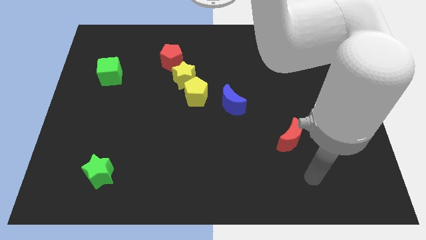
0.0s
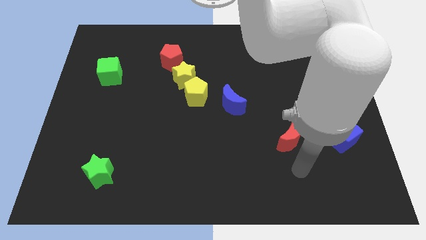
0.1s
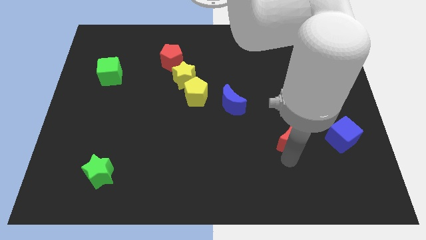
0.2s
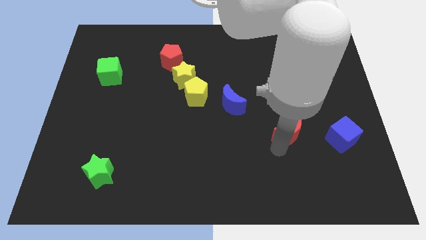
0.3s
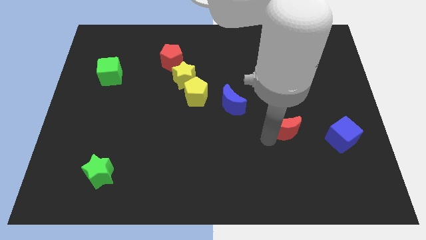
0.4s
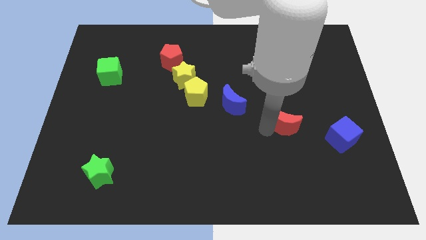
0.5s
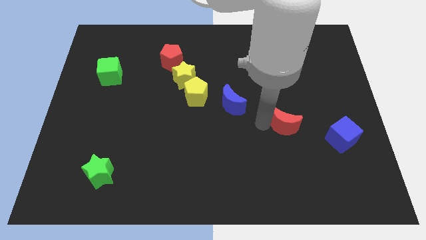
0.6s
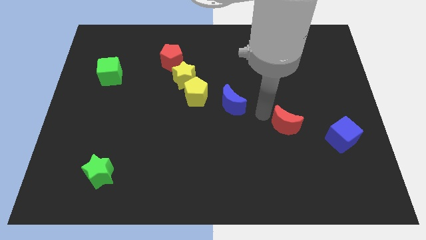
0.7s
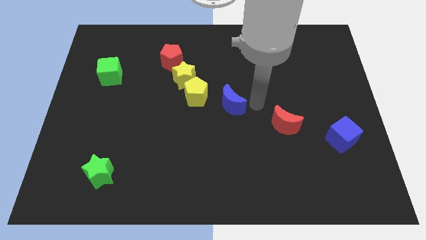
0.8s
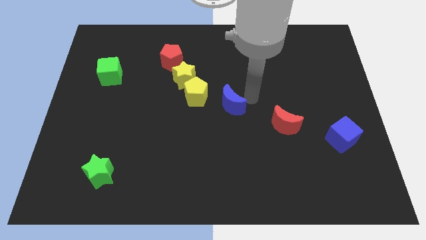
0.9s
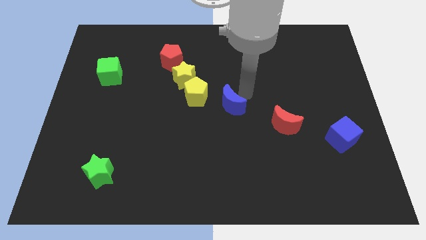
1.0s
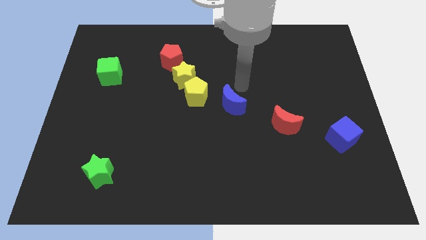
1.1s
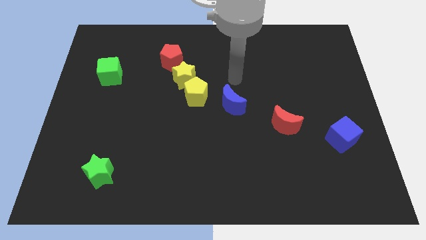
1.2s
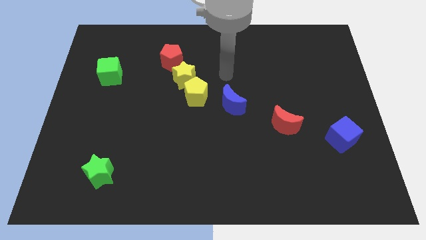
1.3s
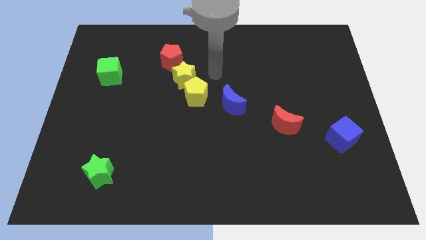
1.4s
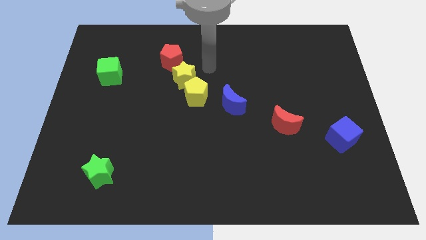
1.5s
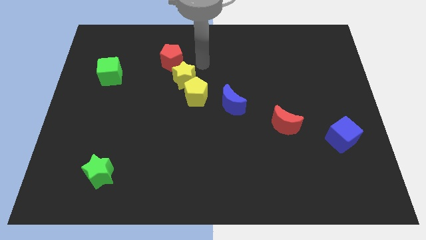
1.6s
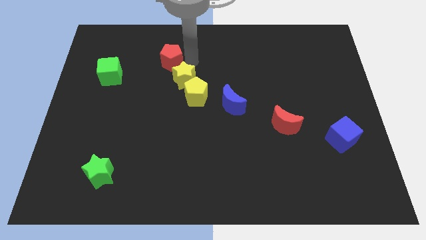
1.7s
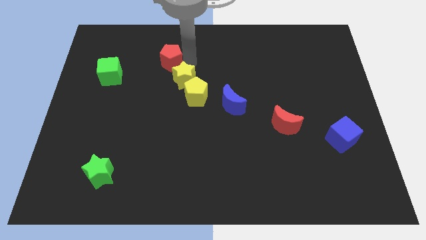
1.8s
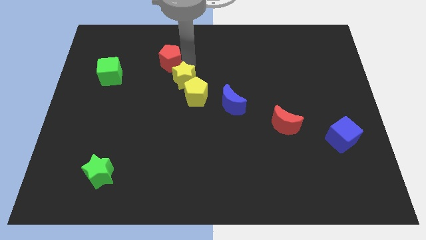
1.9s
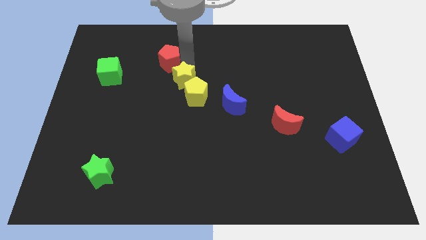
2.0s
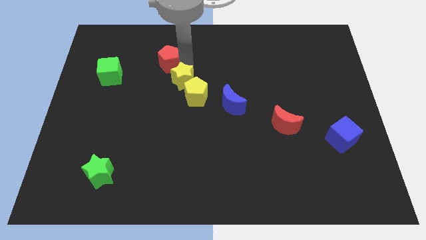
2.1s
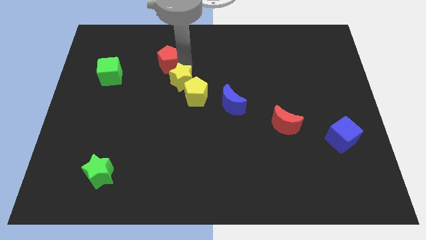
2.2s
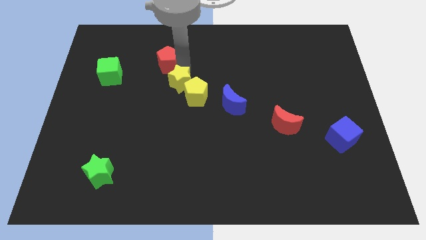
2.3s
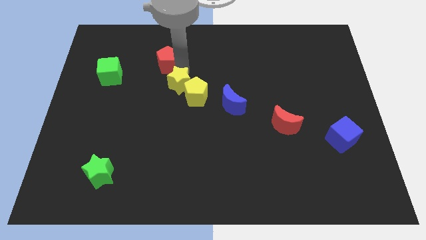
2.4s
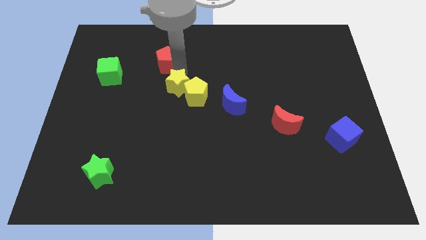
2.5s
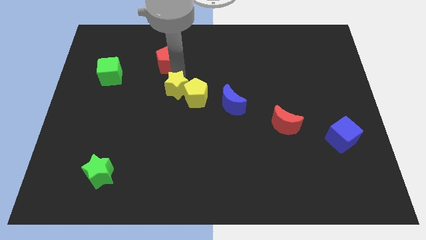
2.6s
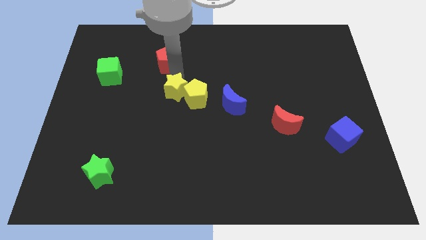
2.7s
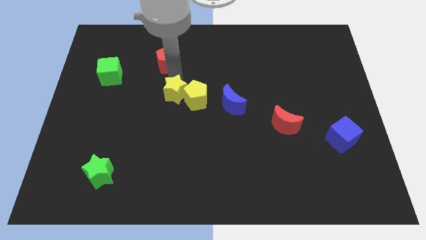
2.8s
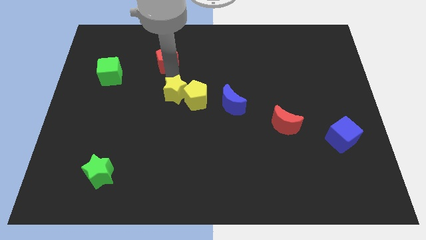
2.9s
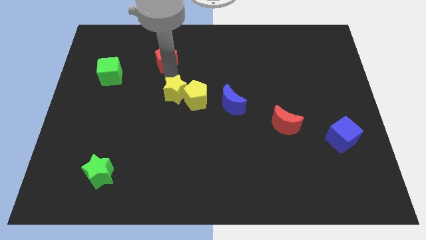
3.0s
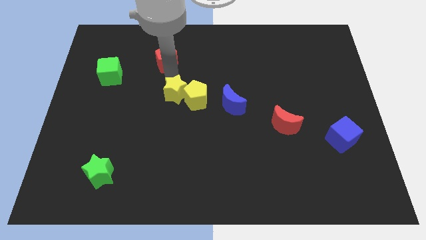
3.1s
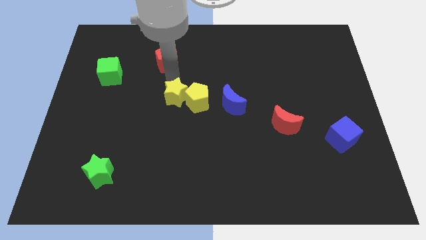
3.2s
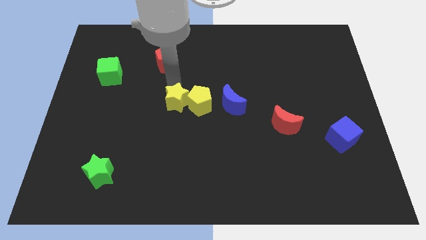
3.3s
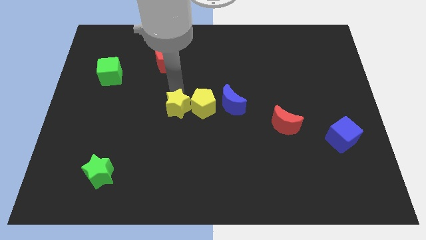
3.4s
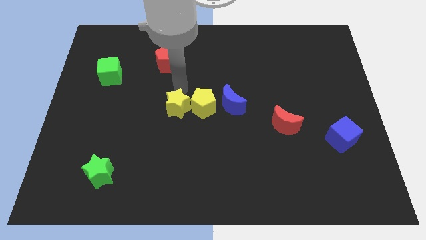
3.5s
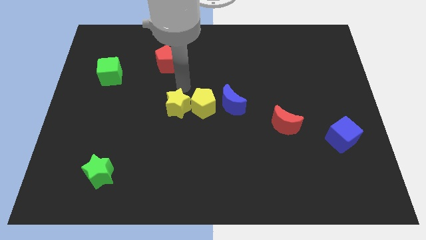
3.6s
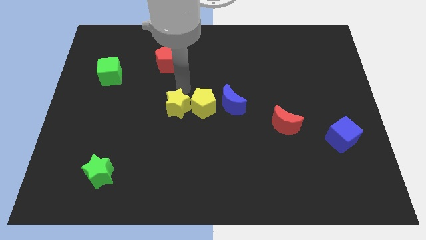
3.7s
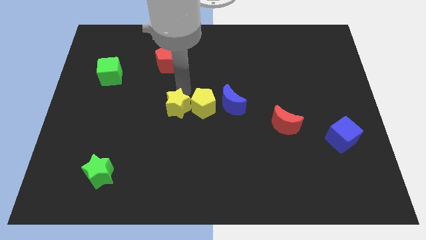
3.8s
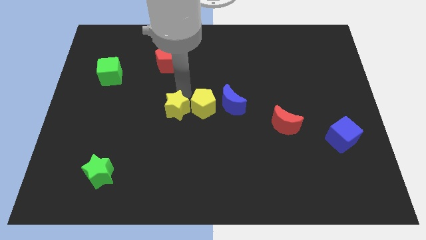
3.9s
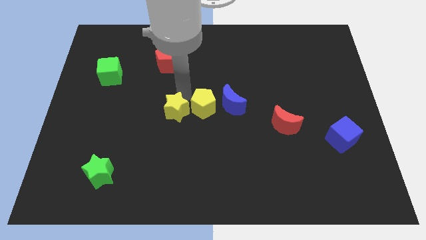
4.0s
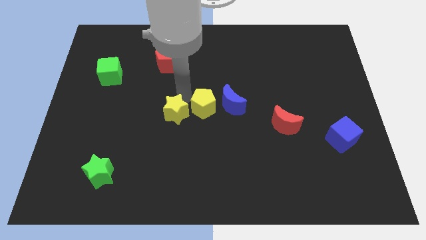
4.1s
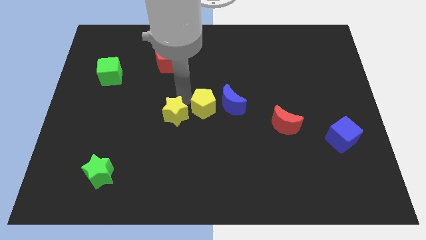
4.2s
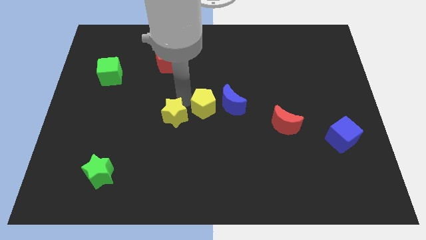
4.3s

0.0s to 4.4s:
separate the yellow star from the yellow pentagon and red pentagon

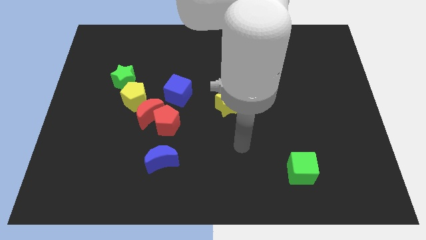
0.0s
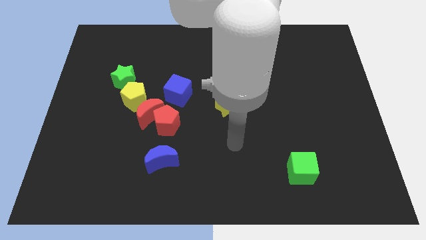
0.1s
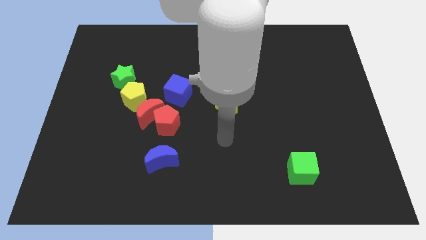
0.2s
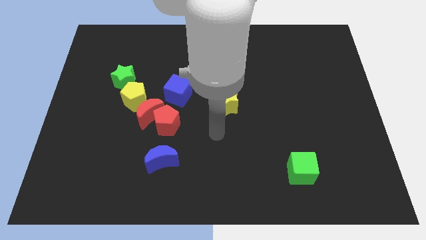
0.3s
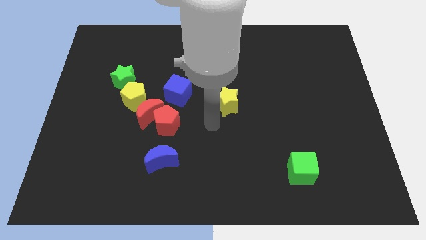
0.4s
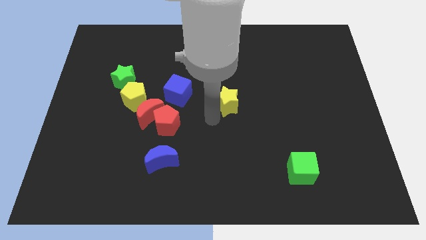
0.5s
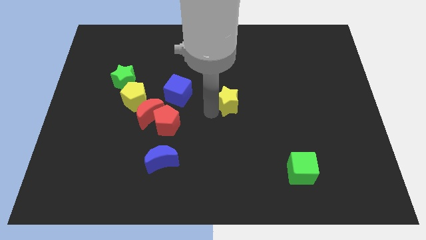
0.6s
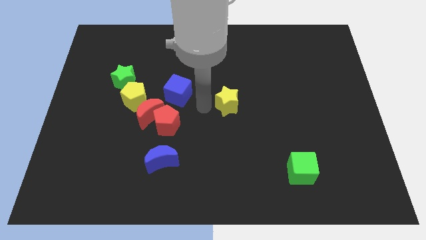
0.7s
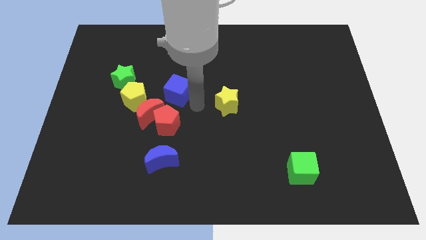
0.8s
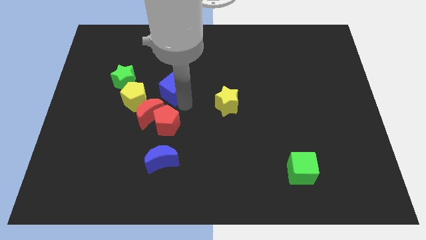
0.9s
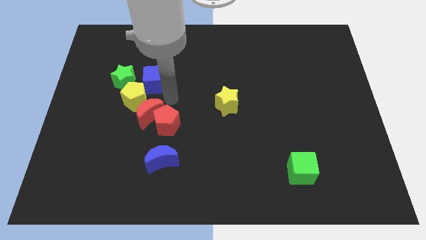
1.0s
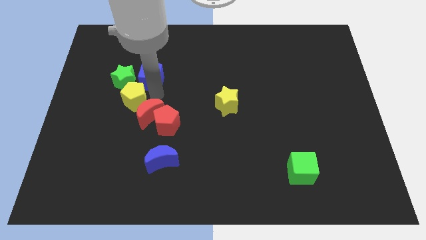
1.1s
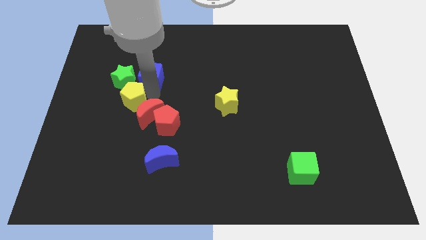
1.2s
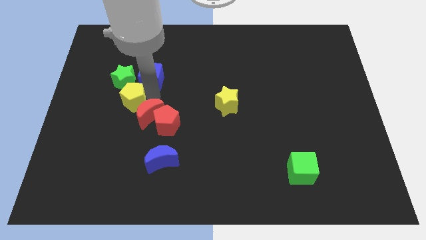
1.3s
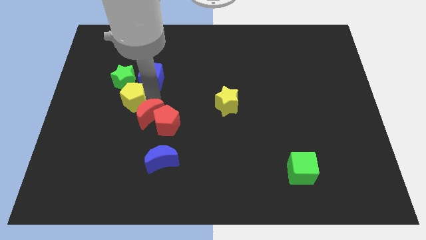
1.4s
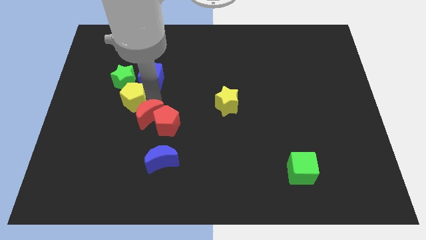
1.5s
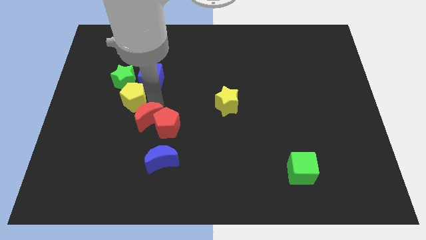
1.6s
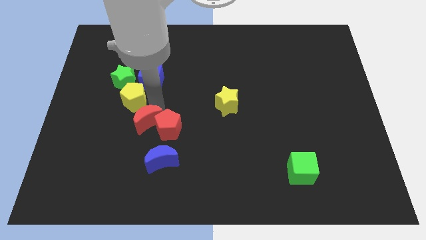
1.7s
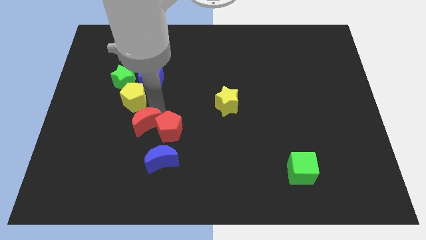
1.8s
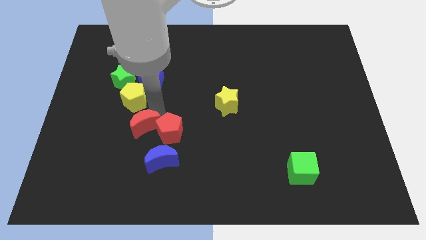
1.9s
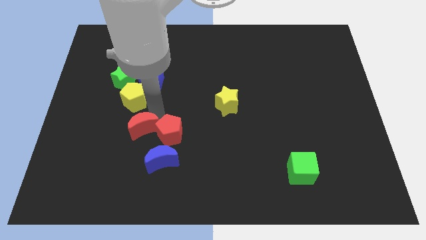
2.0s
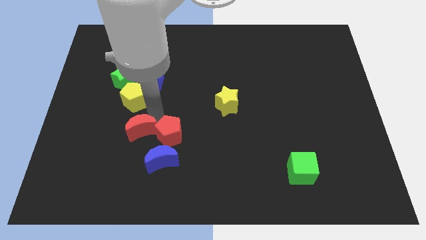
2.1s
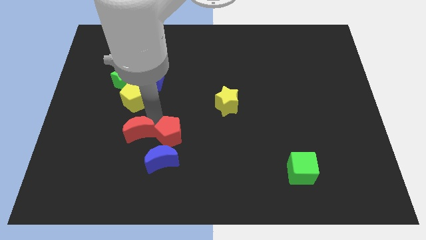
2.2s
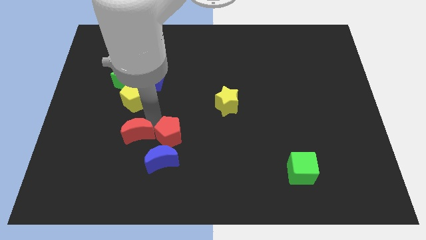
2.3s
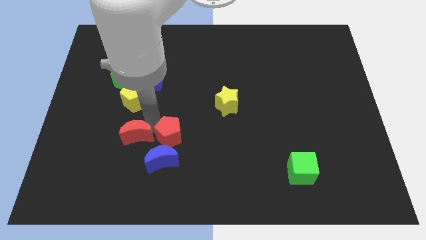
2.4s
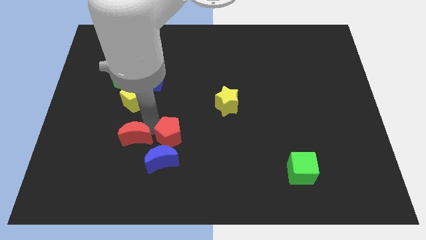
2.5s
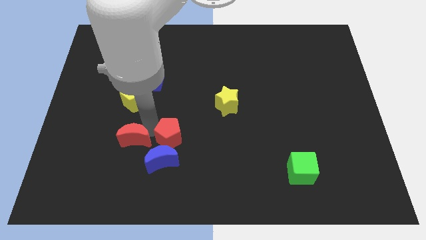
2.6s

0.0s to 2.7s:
separate the red moon from the group

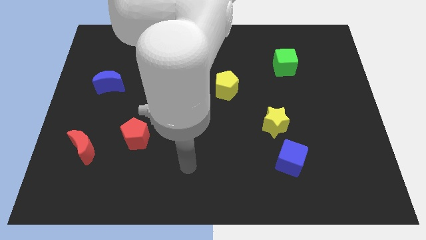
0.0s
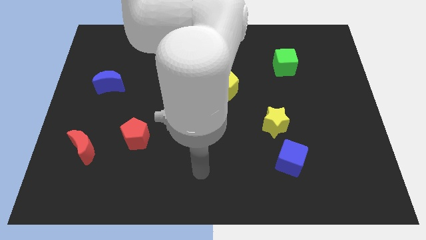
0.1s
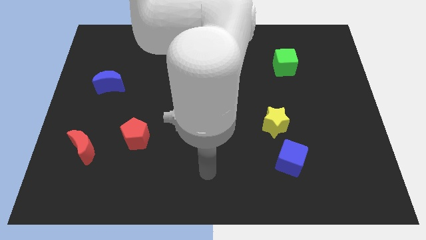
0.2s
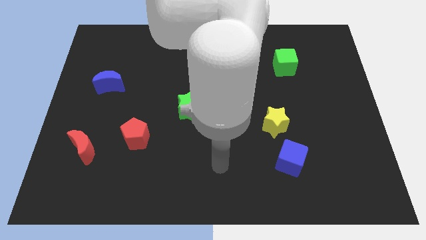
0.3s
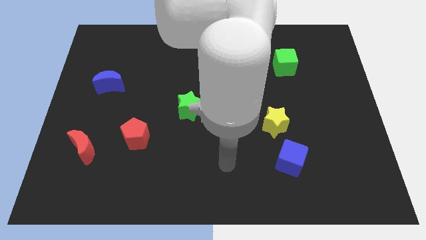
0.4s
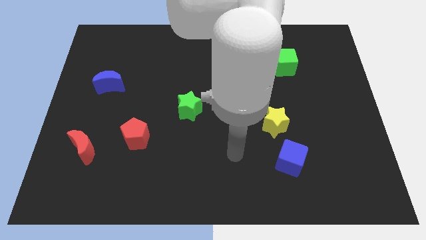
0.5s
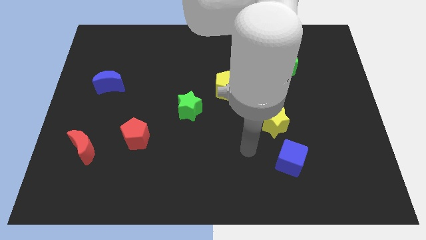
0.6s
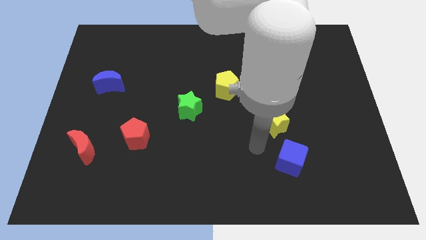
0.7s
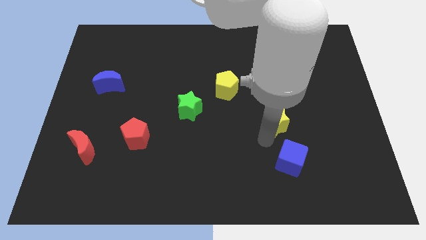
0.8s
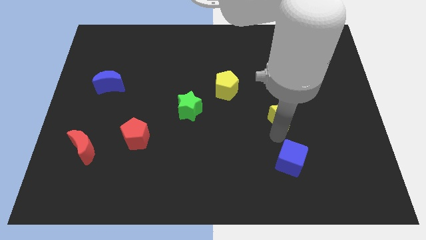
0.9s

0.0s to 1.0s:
move the blue cube away from the yellow star

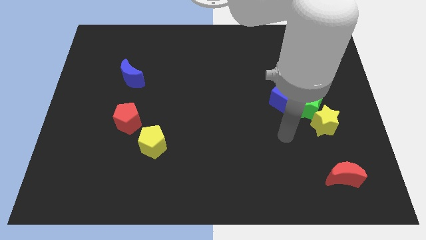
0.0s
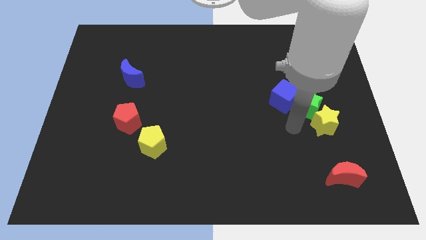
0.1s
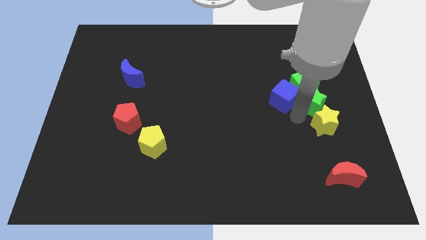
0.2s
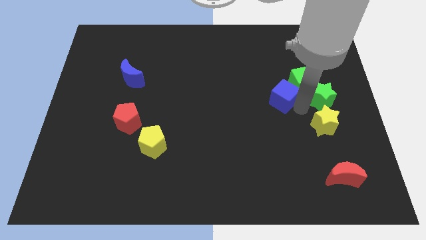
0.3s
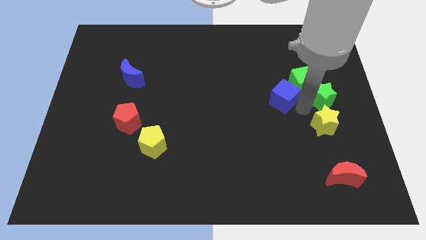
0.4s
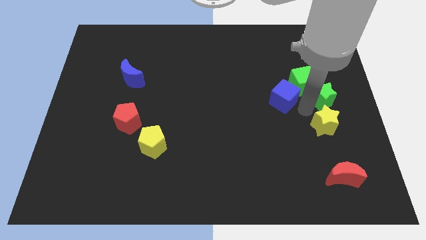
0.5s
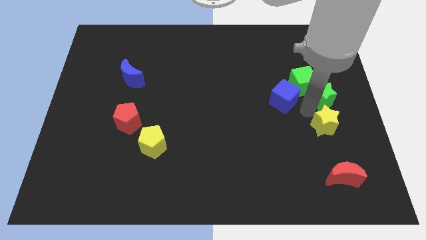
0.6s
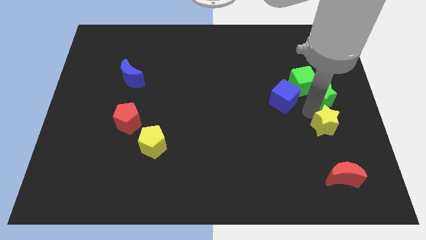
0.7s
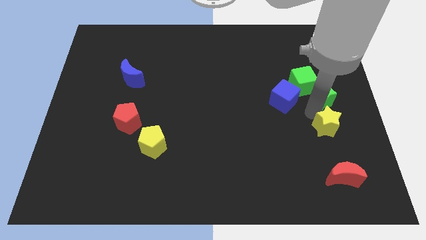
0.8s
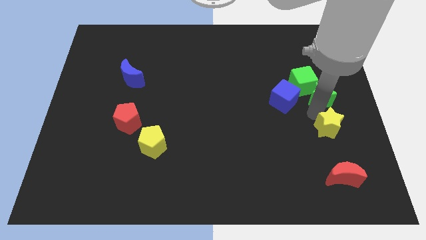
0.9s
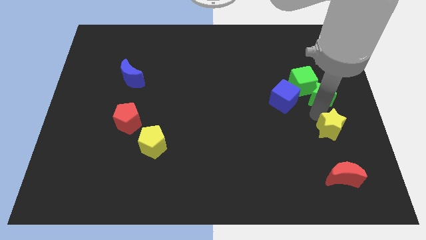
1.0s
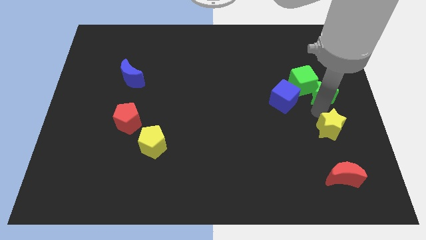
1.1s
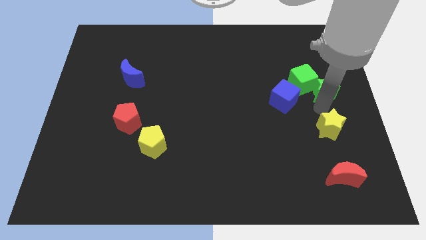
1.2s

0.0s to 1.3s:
pull the yellow star apart from the green star
